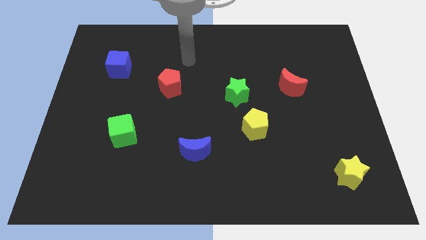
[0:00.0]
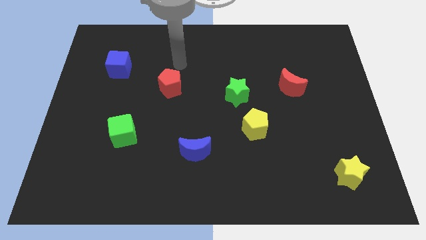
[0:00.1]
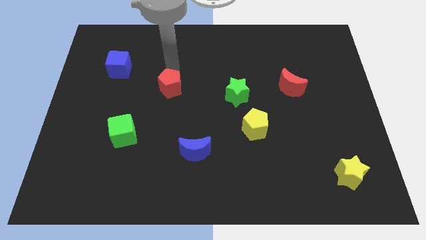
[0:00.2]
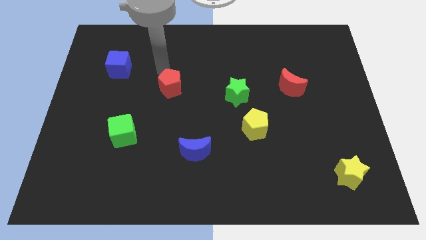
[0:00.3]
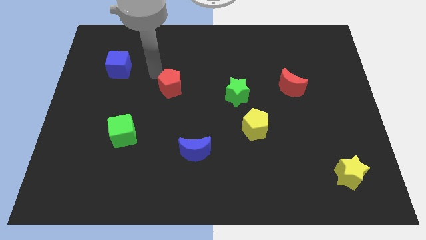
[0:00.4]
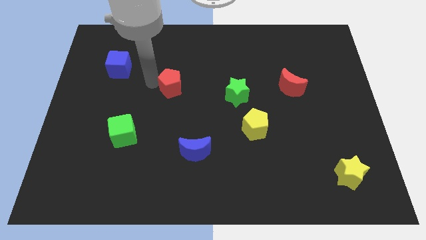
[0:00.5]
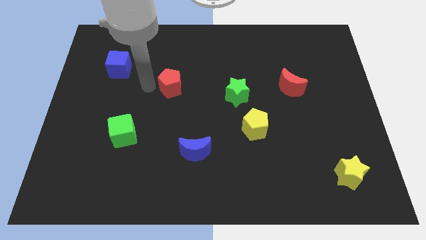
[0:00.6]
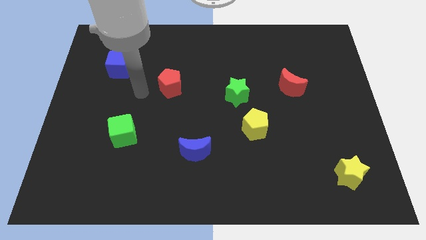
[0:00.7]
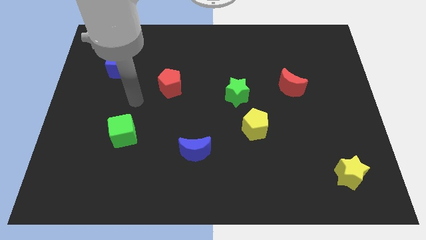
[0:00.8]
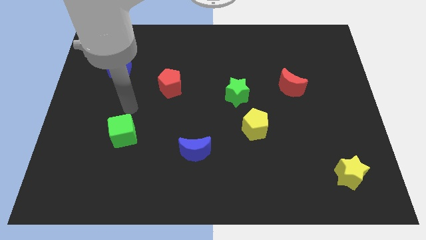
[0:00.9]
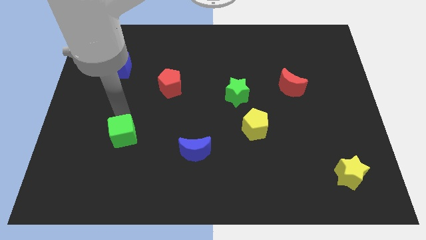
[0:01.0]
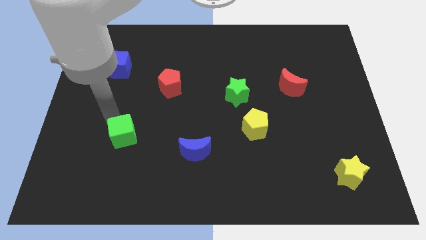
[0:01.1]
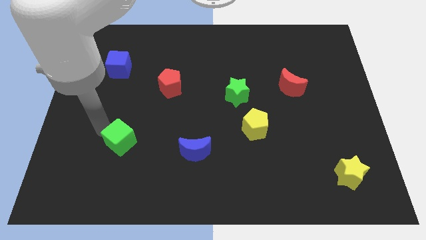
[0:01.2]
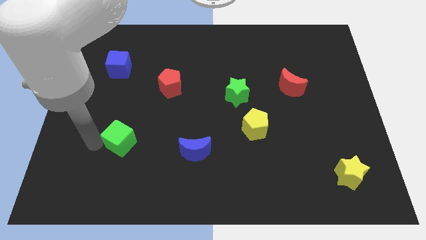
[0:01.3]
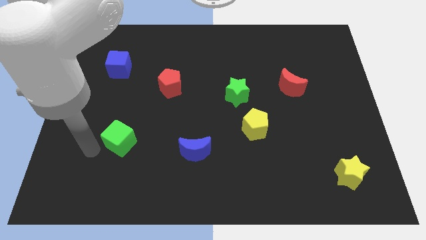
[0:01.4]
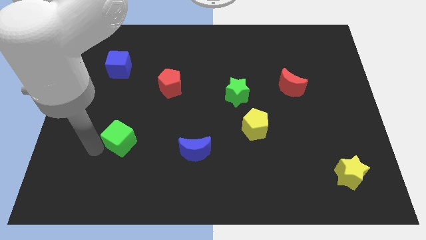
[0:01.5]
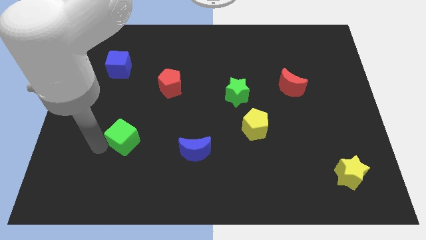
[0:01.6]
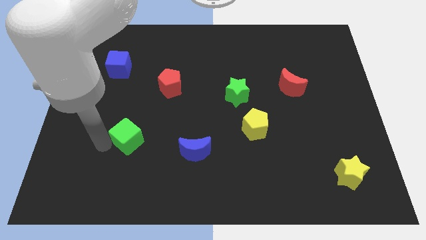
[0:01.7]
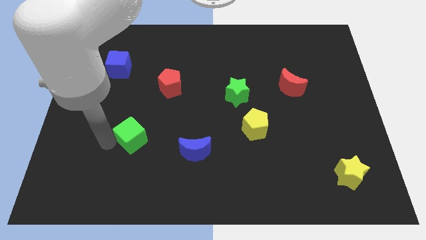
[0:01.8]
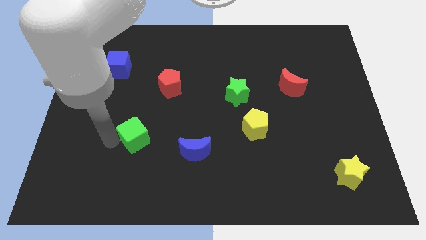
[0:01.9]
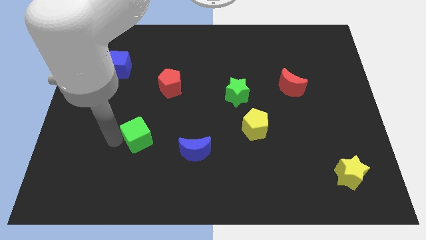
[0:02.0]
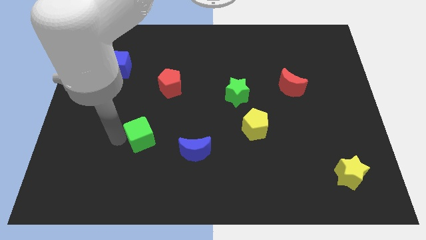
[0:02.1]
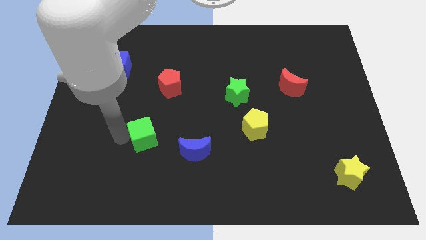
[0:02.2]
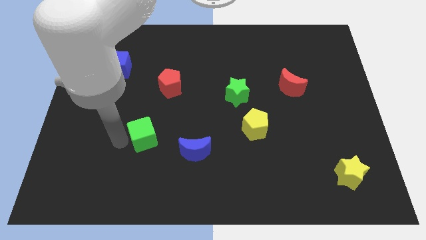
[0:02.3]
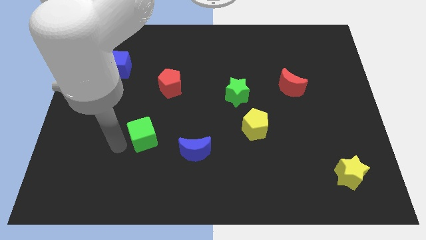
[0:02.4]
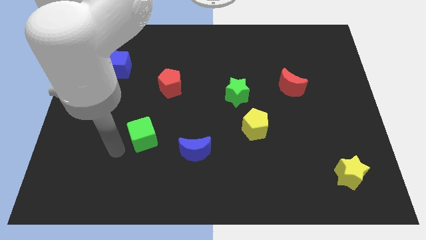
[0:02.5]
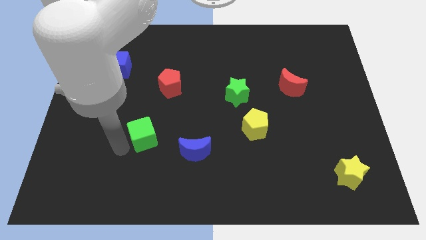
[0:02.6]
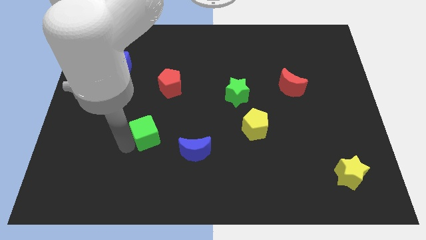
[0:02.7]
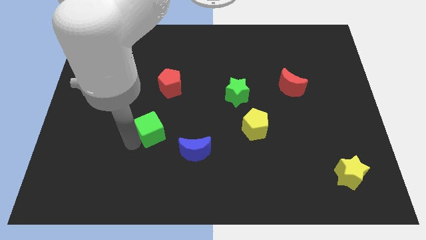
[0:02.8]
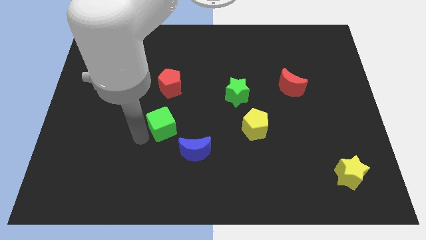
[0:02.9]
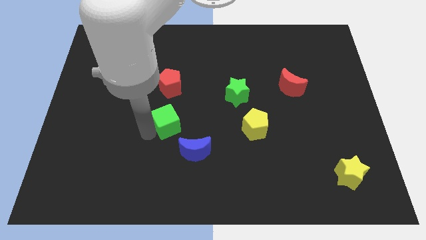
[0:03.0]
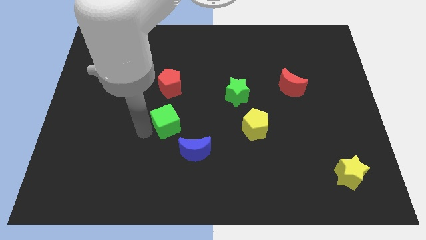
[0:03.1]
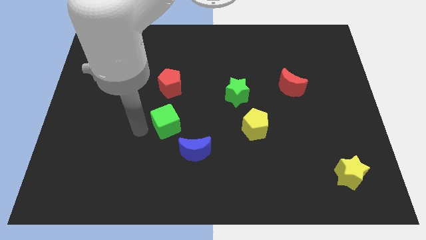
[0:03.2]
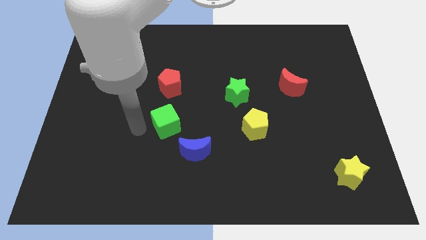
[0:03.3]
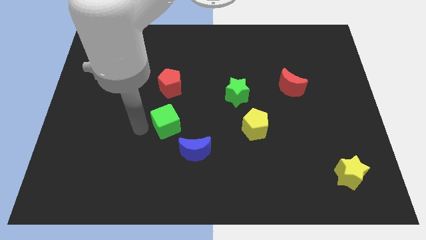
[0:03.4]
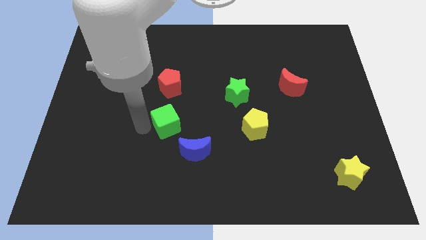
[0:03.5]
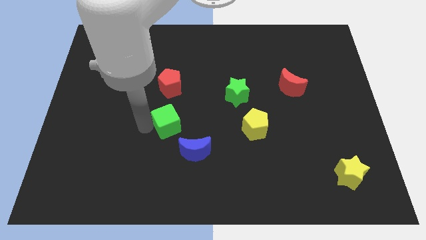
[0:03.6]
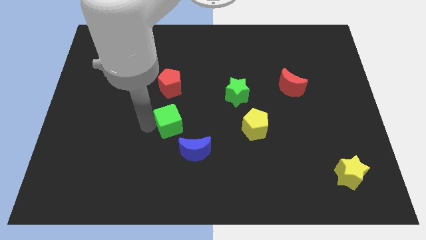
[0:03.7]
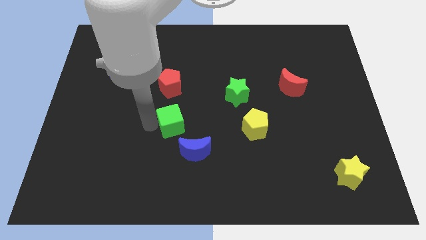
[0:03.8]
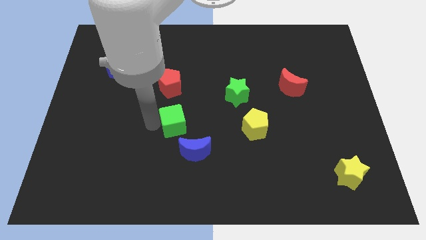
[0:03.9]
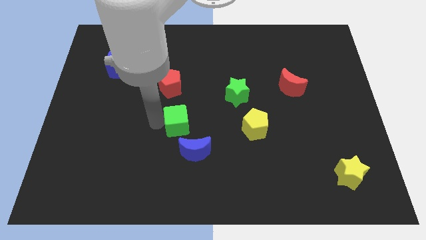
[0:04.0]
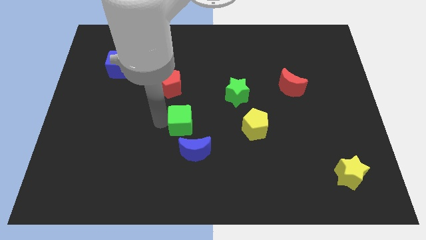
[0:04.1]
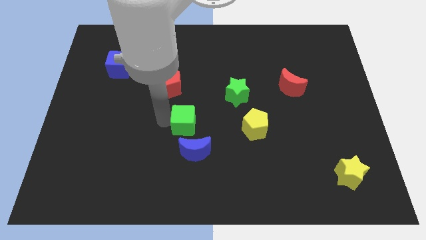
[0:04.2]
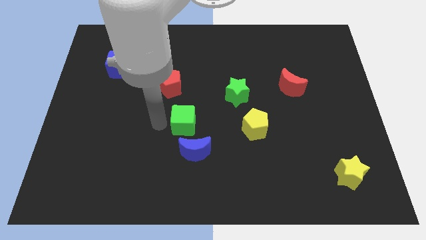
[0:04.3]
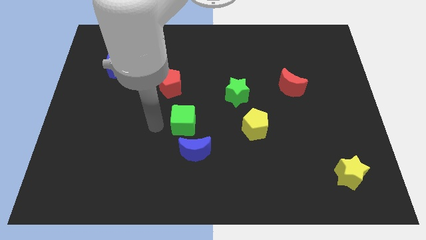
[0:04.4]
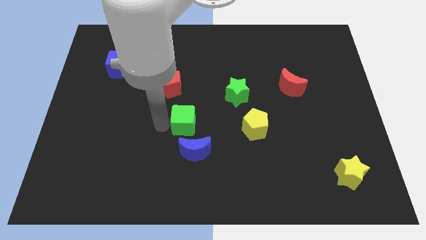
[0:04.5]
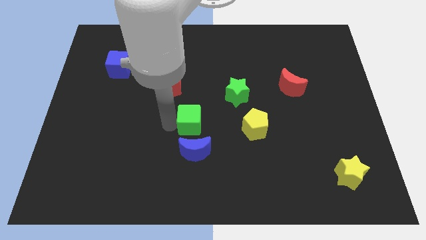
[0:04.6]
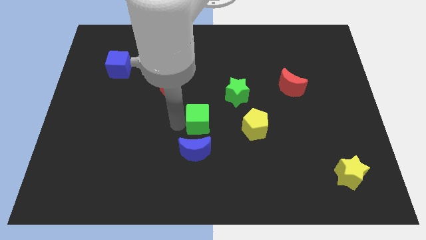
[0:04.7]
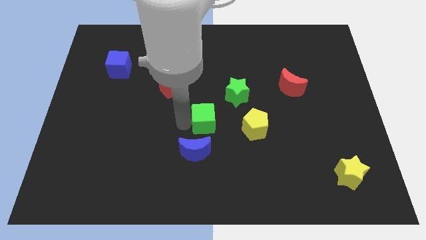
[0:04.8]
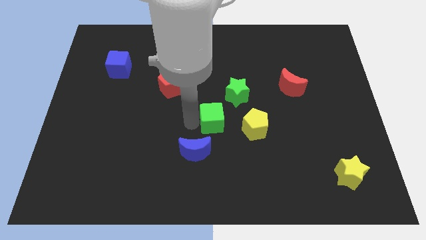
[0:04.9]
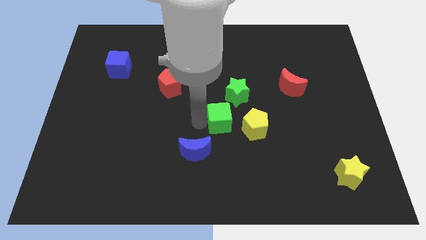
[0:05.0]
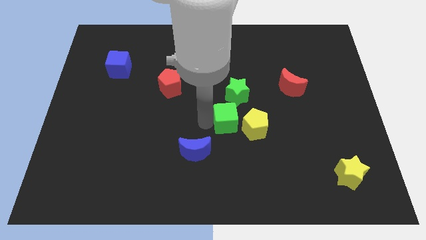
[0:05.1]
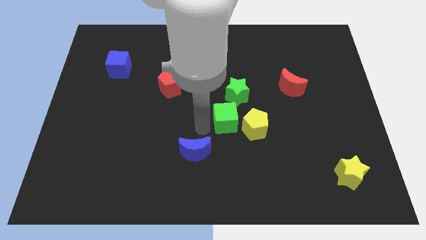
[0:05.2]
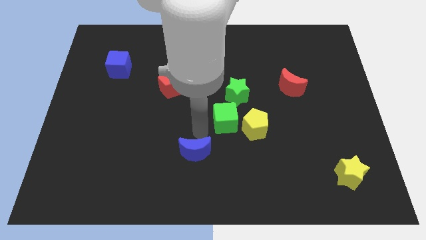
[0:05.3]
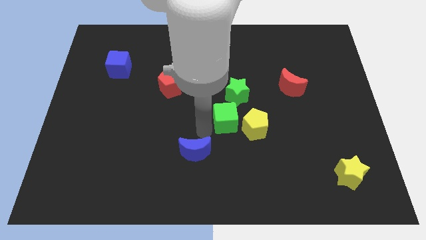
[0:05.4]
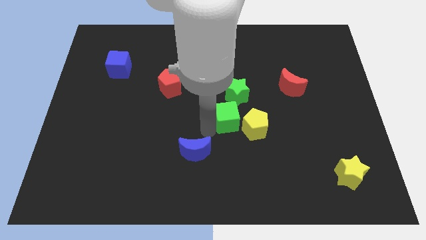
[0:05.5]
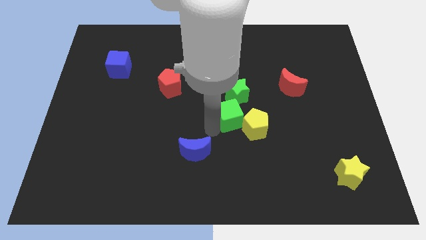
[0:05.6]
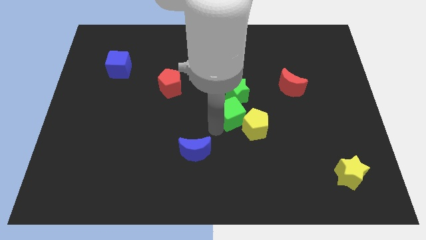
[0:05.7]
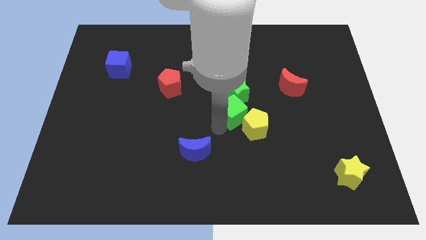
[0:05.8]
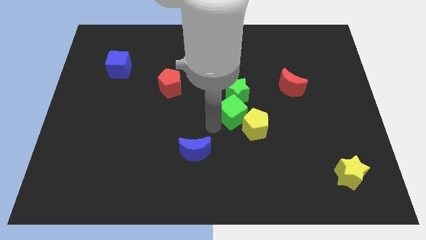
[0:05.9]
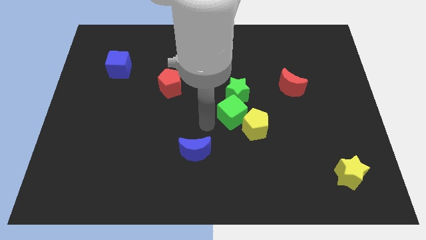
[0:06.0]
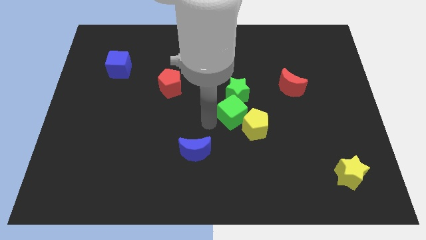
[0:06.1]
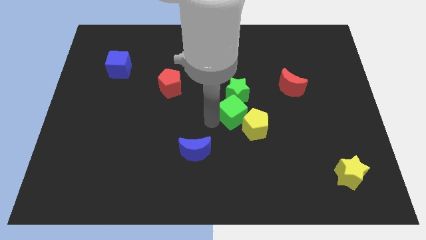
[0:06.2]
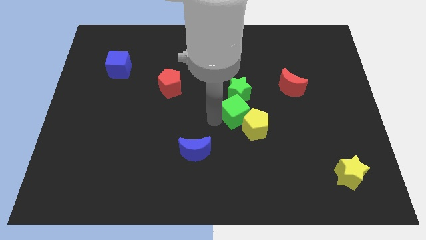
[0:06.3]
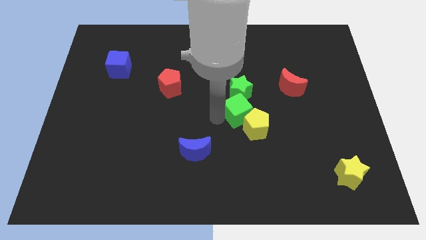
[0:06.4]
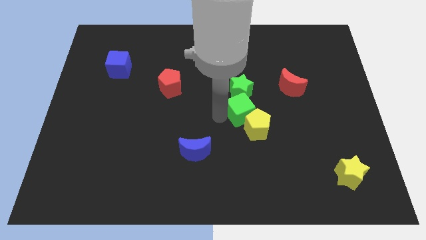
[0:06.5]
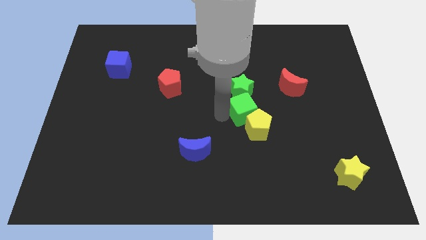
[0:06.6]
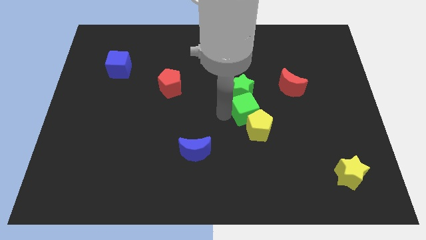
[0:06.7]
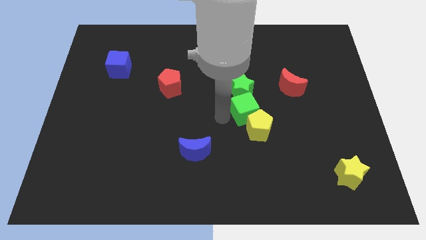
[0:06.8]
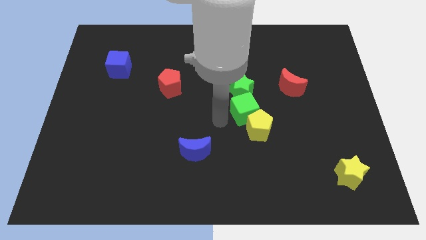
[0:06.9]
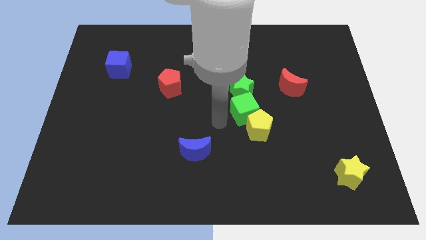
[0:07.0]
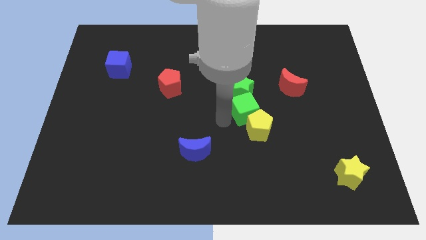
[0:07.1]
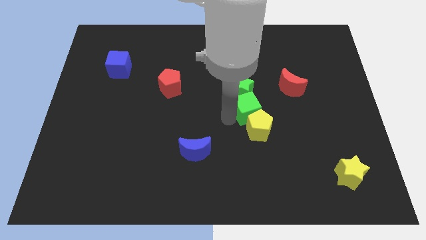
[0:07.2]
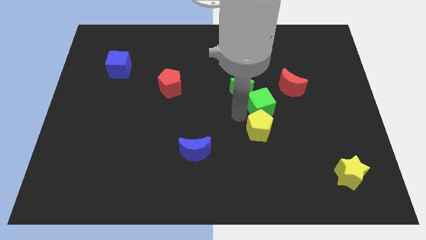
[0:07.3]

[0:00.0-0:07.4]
push the green cube to the right side of the green star
